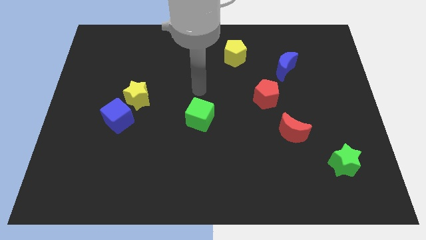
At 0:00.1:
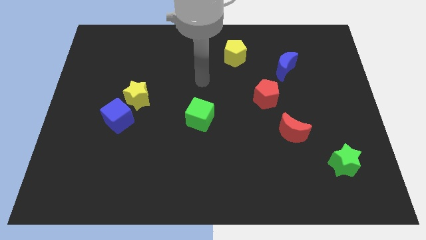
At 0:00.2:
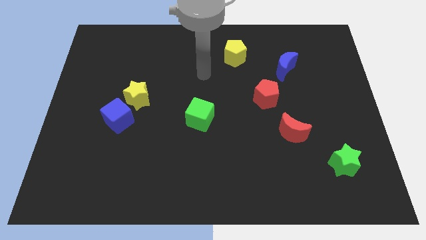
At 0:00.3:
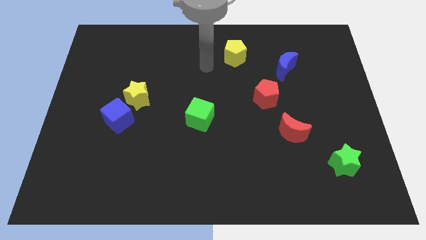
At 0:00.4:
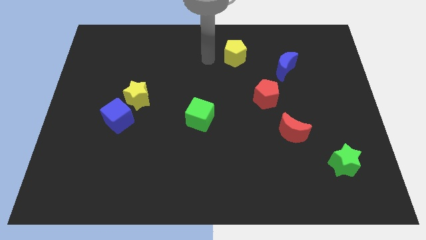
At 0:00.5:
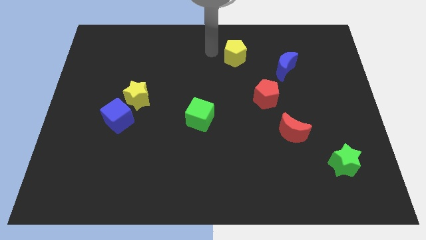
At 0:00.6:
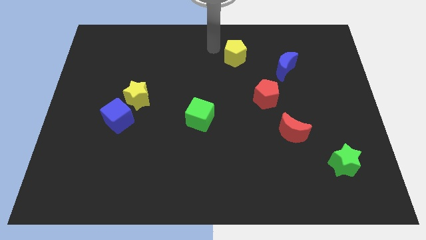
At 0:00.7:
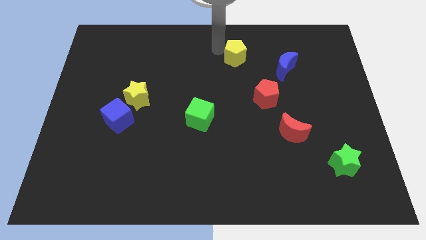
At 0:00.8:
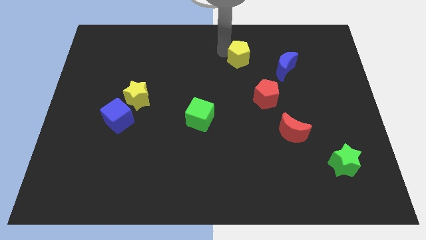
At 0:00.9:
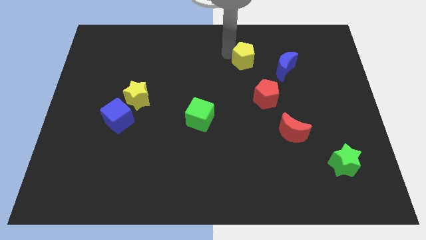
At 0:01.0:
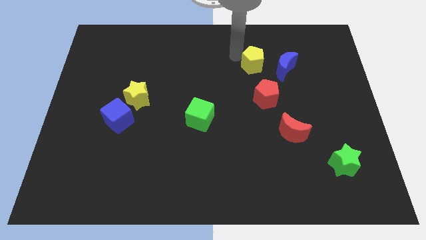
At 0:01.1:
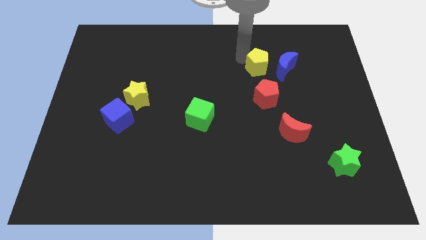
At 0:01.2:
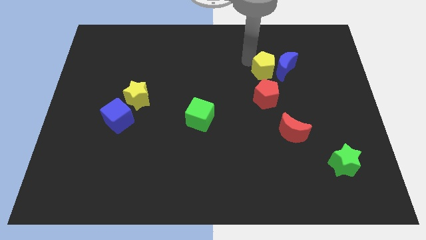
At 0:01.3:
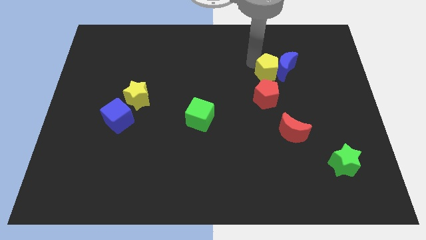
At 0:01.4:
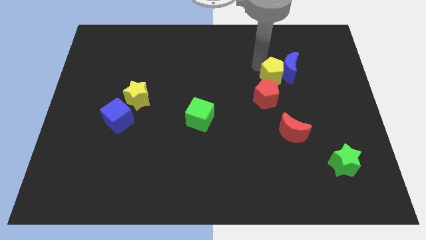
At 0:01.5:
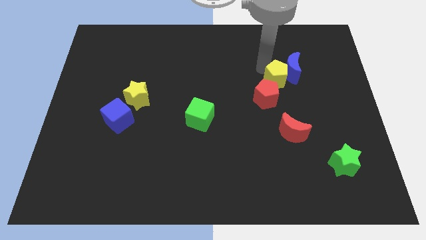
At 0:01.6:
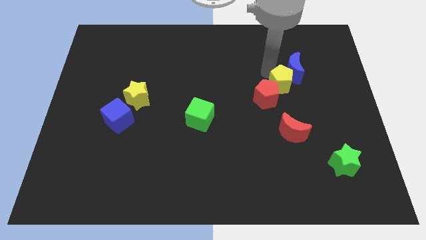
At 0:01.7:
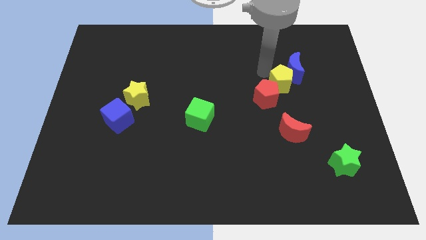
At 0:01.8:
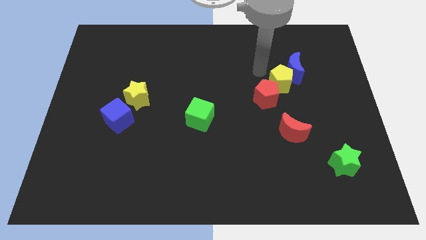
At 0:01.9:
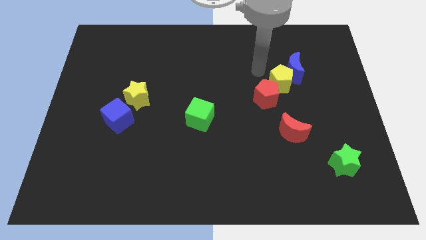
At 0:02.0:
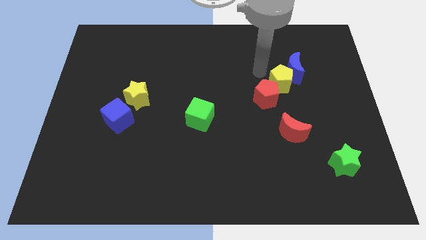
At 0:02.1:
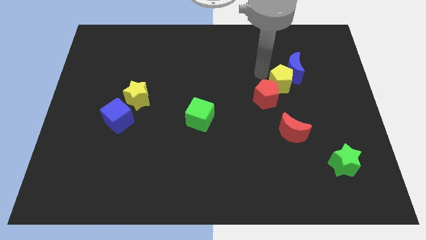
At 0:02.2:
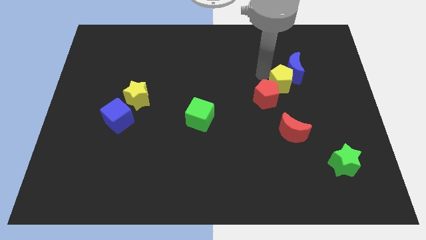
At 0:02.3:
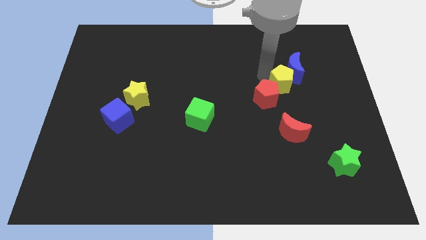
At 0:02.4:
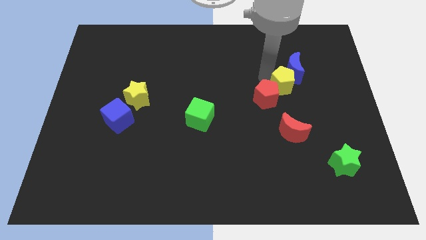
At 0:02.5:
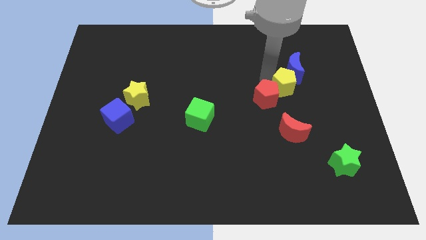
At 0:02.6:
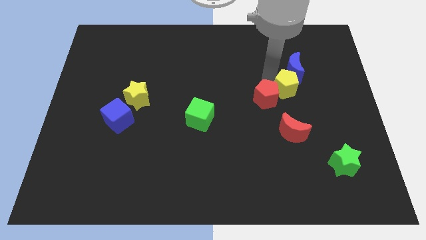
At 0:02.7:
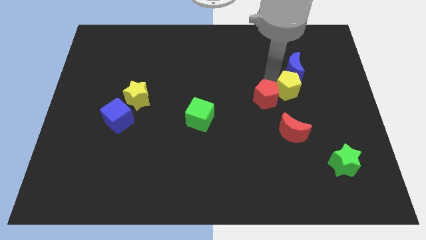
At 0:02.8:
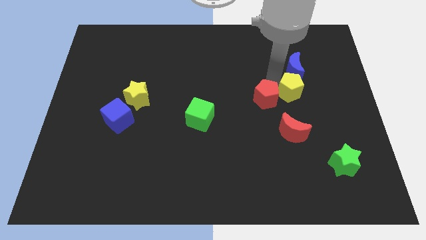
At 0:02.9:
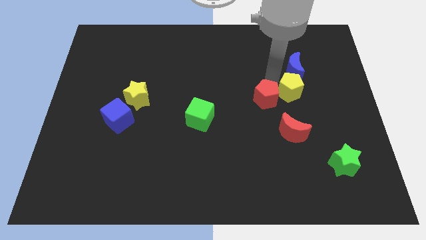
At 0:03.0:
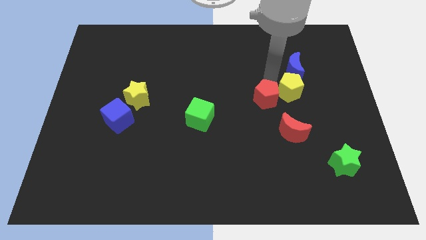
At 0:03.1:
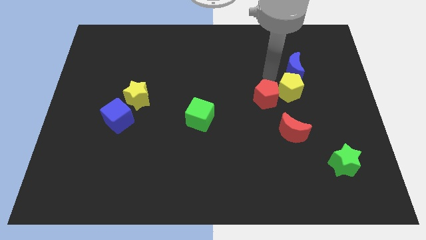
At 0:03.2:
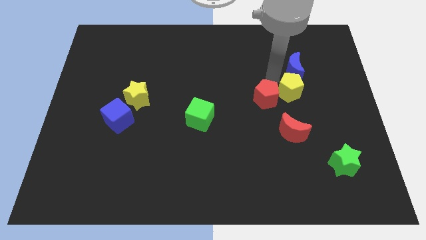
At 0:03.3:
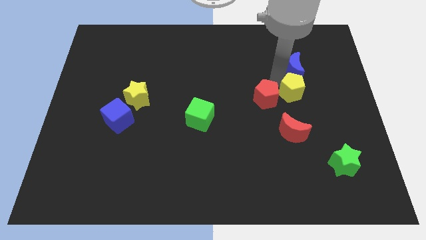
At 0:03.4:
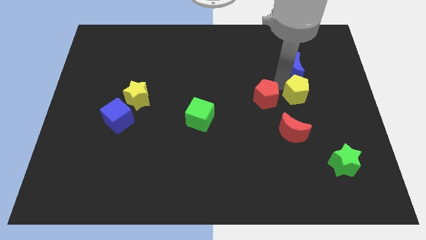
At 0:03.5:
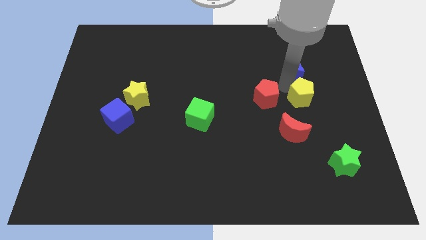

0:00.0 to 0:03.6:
move the yellow pentagon downwards and then right

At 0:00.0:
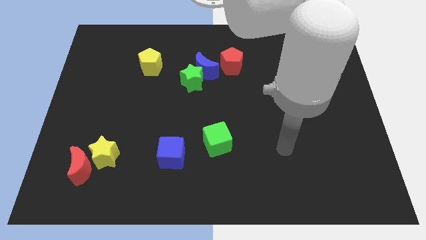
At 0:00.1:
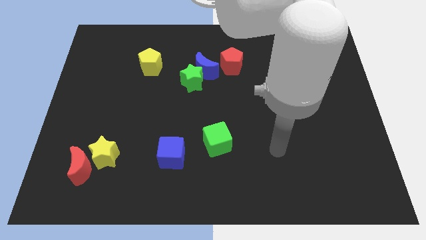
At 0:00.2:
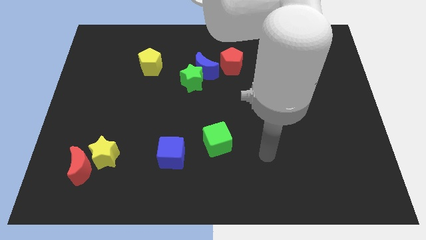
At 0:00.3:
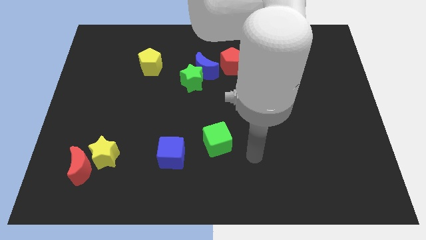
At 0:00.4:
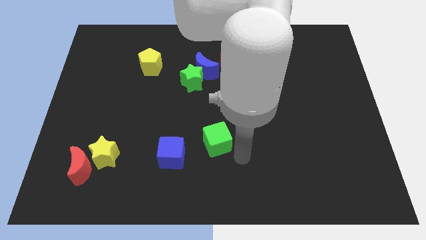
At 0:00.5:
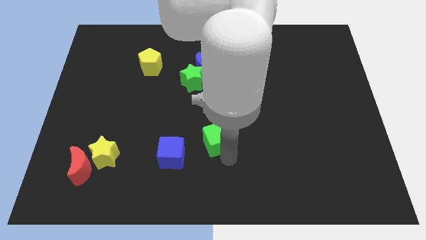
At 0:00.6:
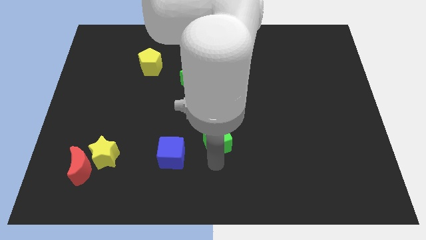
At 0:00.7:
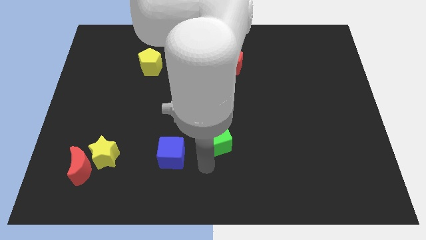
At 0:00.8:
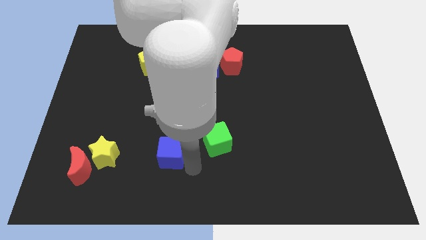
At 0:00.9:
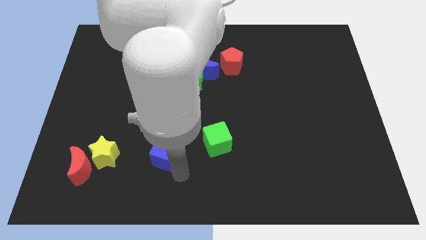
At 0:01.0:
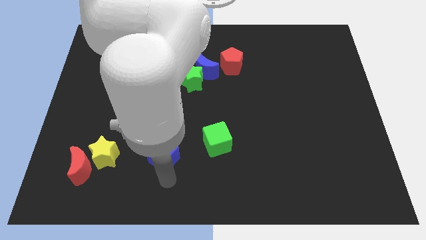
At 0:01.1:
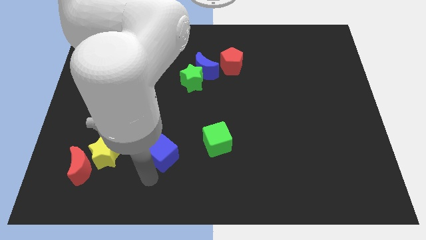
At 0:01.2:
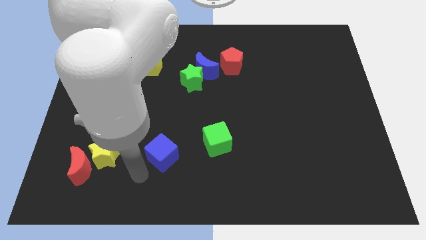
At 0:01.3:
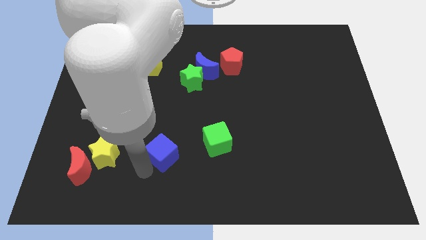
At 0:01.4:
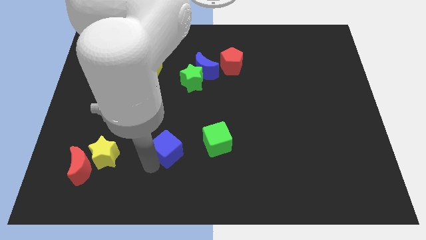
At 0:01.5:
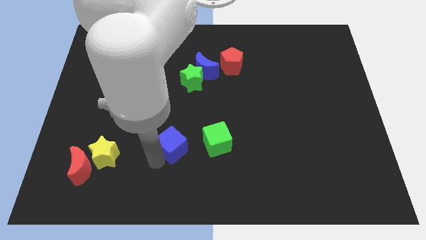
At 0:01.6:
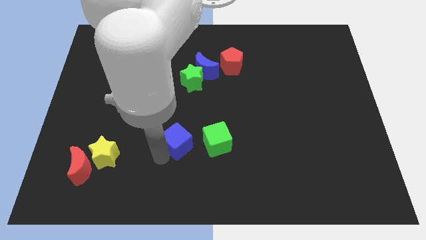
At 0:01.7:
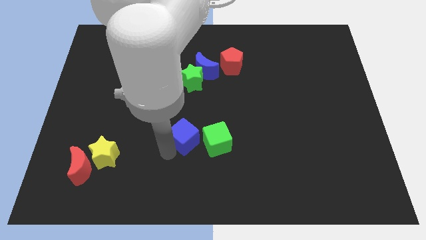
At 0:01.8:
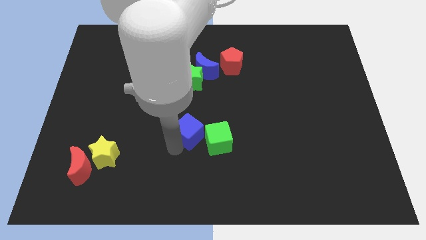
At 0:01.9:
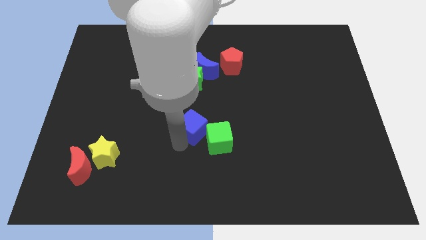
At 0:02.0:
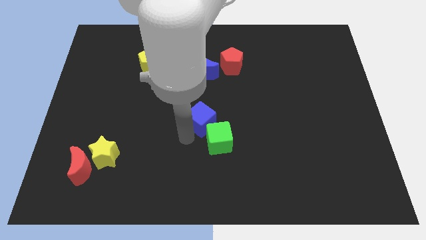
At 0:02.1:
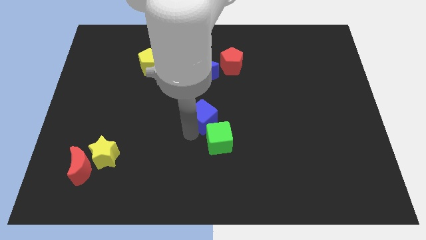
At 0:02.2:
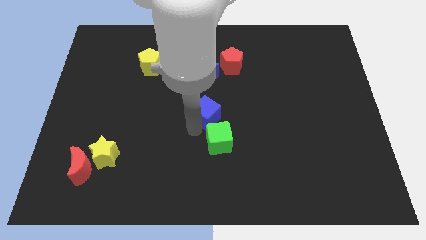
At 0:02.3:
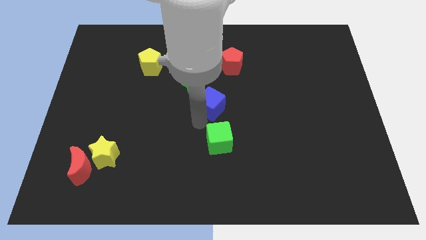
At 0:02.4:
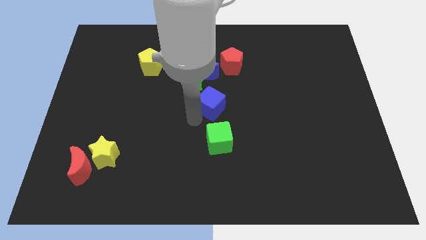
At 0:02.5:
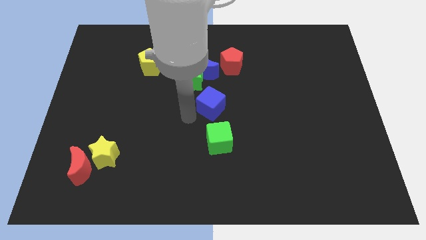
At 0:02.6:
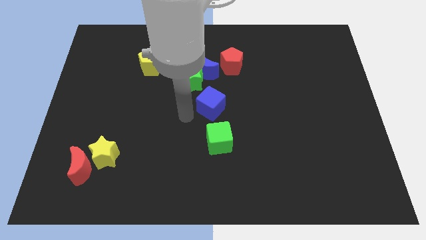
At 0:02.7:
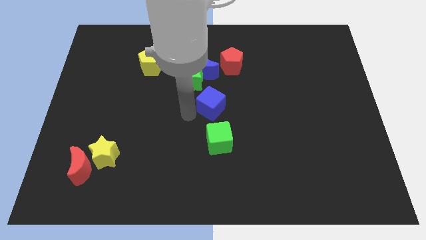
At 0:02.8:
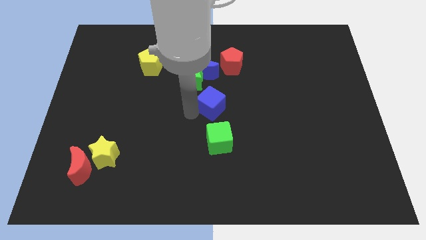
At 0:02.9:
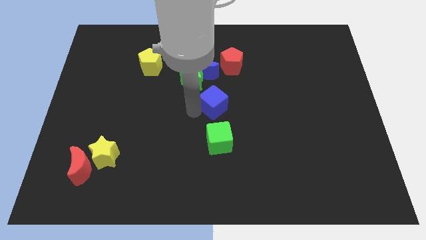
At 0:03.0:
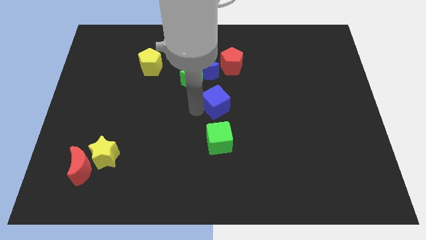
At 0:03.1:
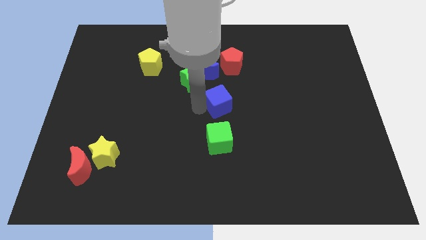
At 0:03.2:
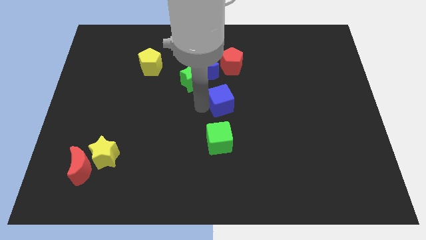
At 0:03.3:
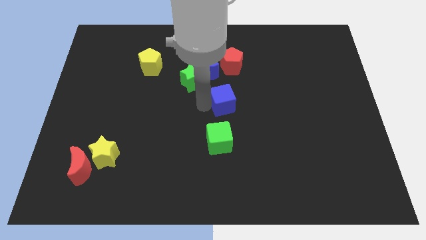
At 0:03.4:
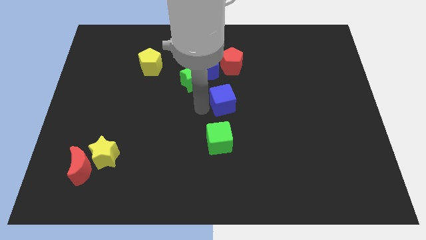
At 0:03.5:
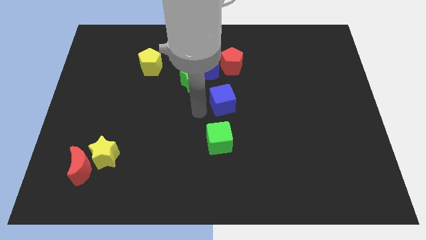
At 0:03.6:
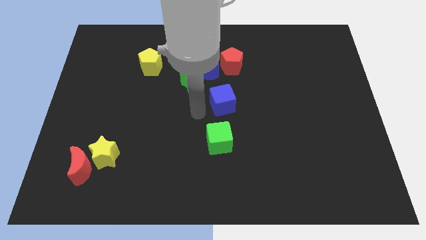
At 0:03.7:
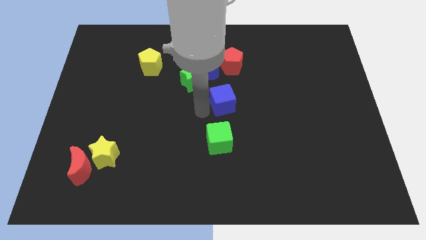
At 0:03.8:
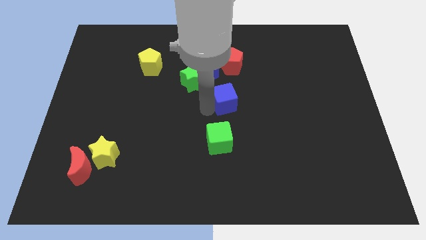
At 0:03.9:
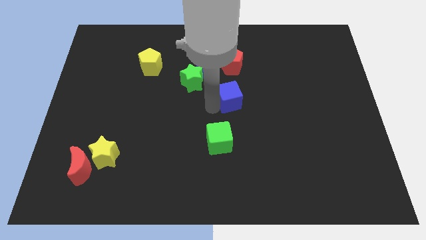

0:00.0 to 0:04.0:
move the blue cube diagonally up and right

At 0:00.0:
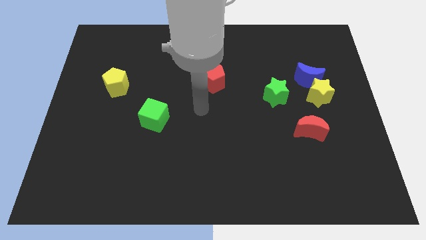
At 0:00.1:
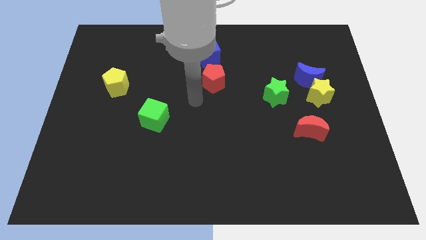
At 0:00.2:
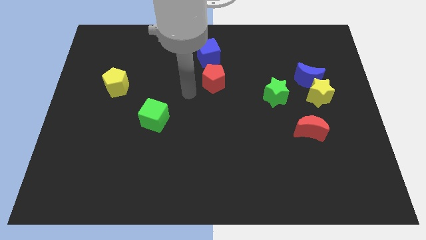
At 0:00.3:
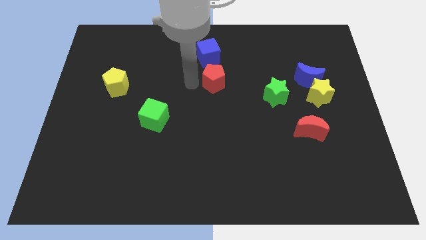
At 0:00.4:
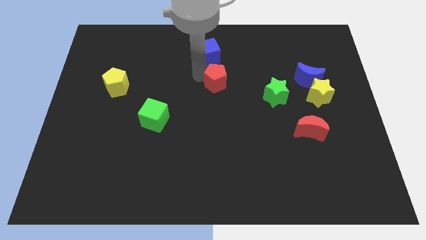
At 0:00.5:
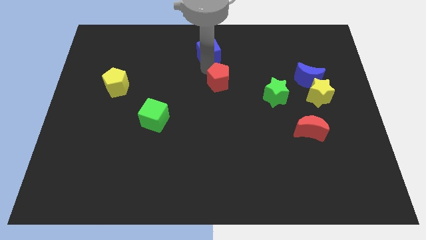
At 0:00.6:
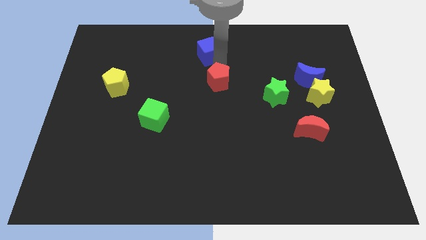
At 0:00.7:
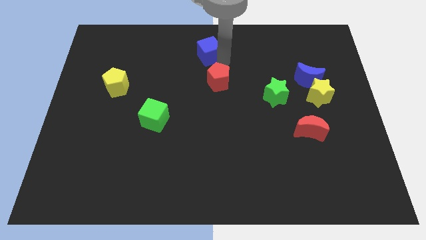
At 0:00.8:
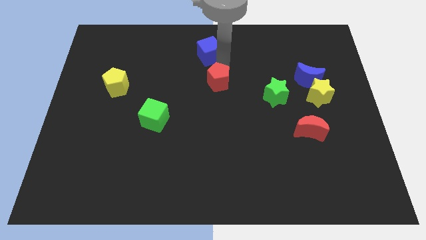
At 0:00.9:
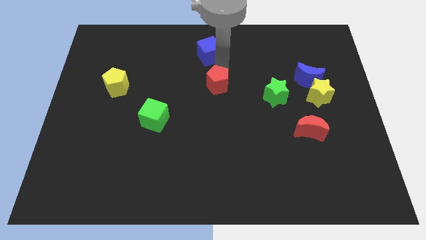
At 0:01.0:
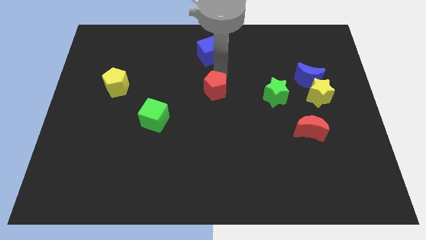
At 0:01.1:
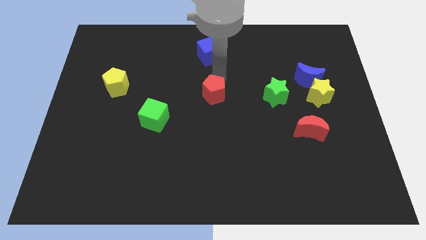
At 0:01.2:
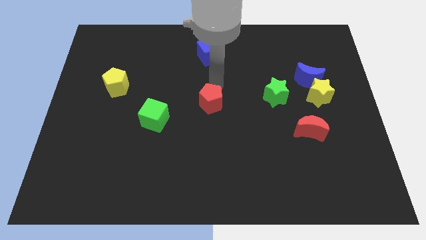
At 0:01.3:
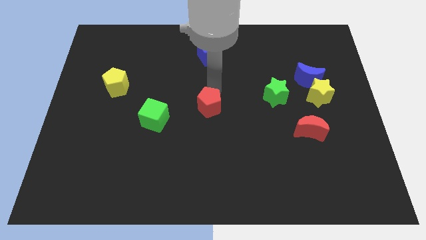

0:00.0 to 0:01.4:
slightly slide the red pentagon downwards
